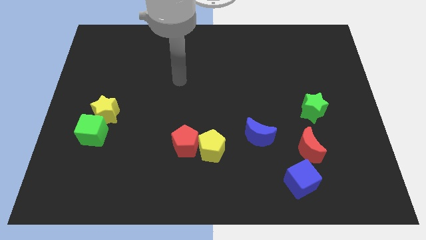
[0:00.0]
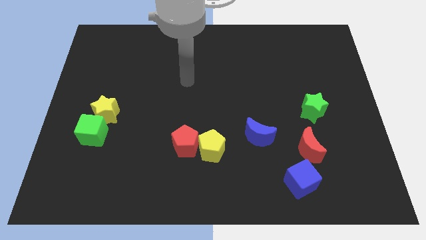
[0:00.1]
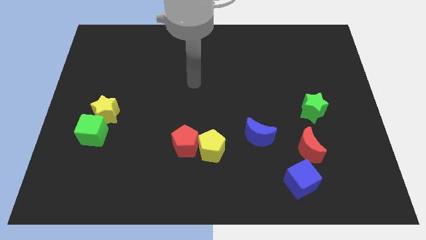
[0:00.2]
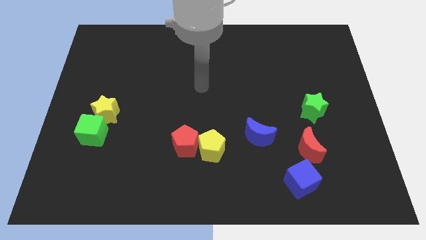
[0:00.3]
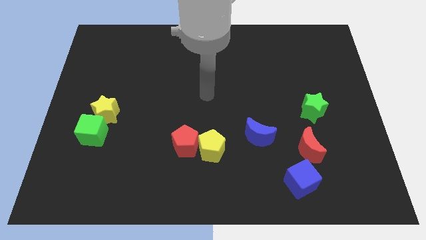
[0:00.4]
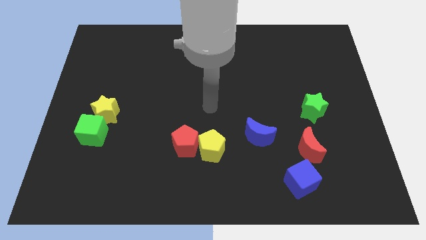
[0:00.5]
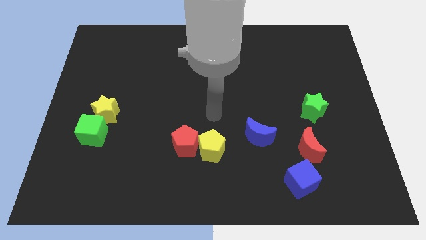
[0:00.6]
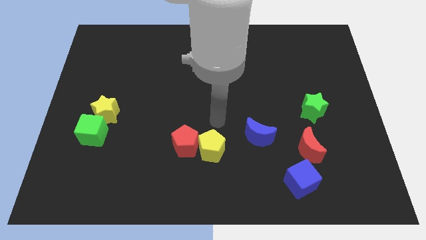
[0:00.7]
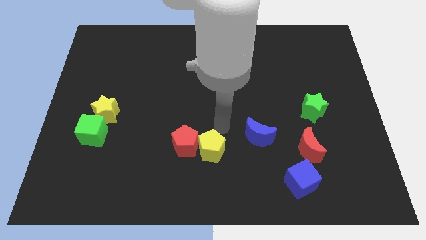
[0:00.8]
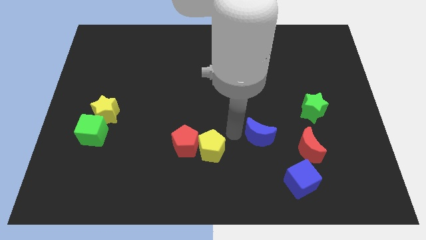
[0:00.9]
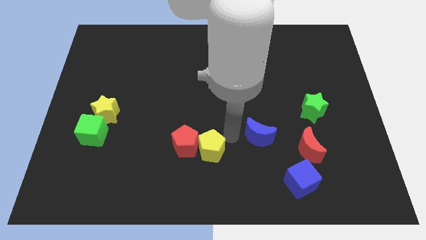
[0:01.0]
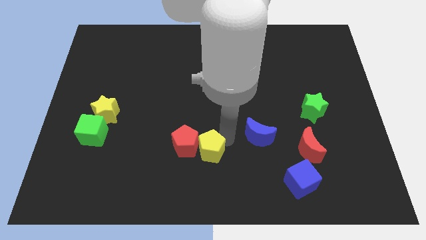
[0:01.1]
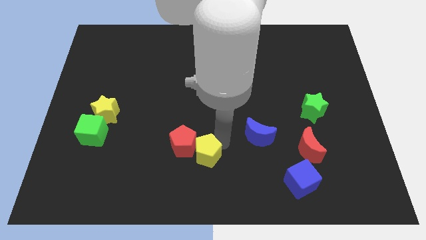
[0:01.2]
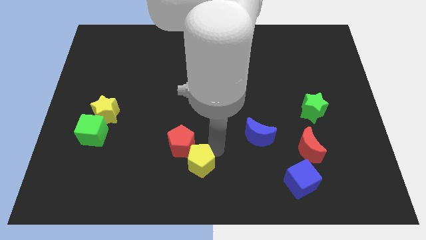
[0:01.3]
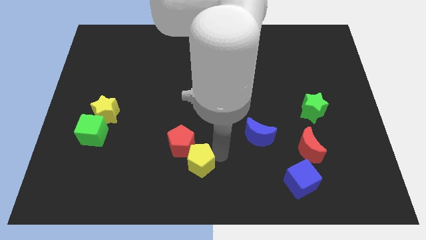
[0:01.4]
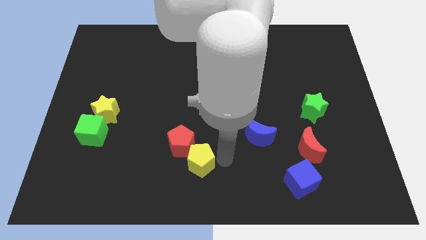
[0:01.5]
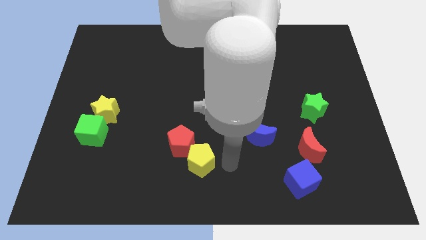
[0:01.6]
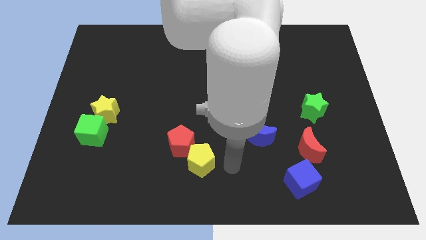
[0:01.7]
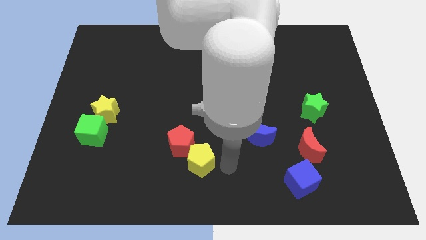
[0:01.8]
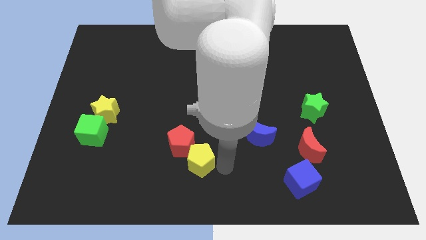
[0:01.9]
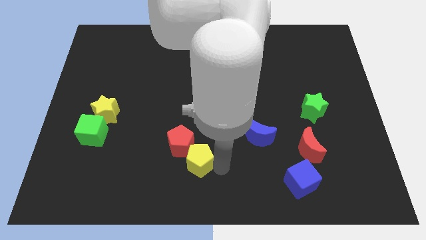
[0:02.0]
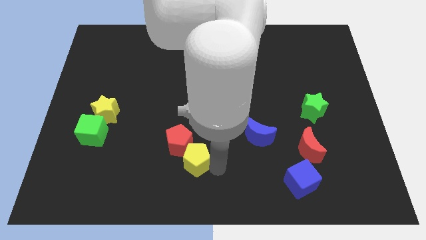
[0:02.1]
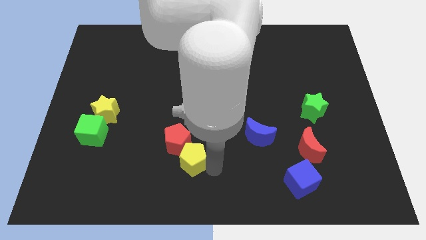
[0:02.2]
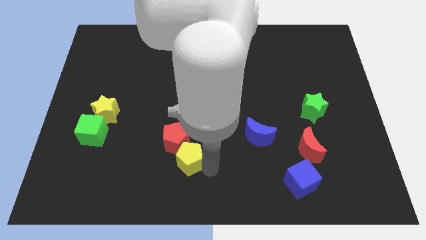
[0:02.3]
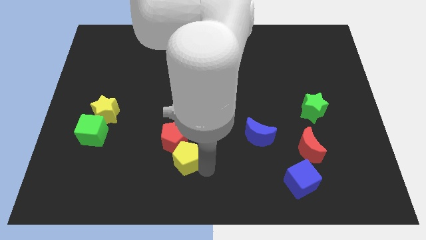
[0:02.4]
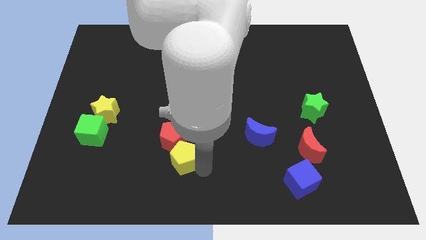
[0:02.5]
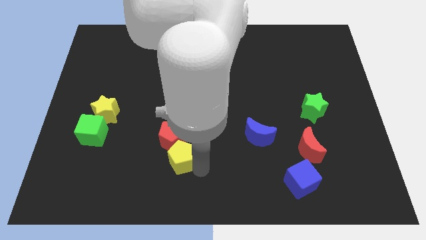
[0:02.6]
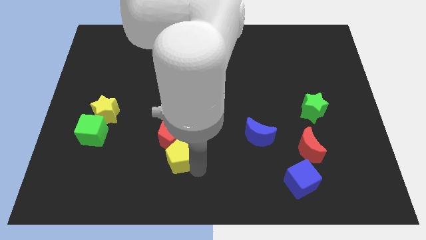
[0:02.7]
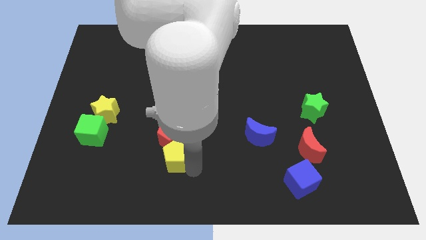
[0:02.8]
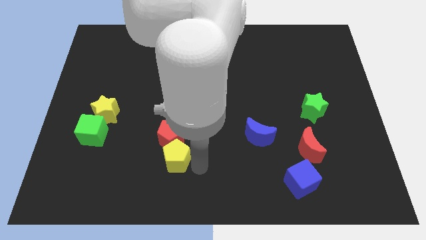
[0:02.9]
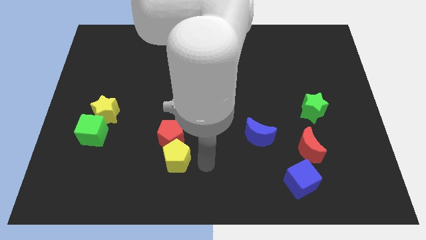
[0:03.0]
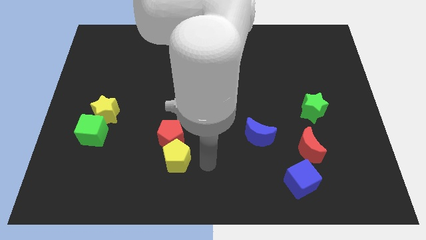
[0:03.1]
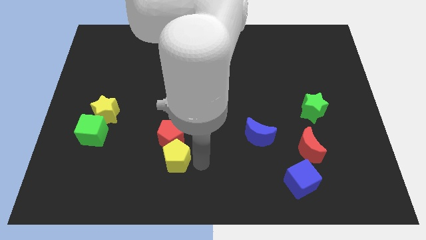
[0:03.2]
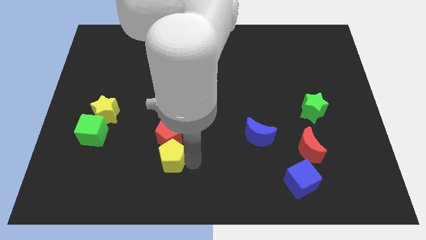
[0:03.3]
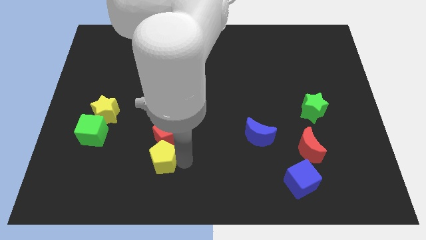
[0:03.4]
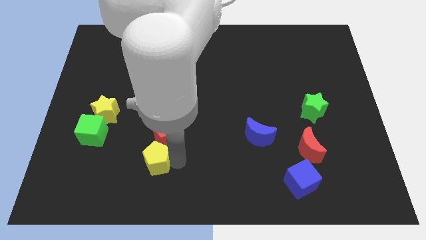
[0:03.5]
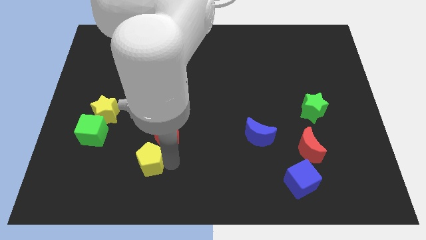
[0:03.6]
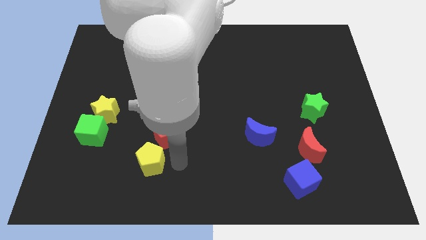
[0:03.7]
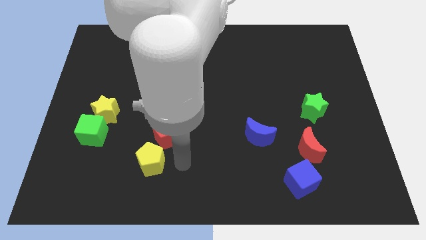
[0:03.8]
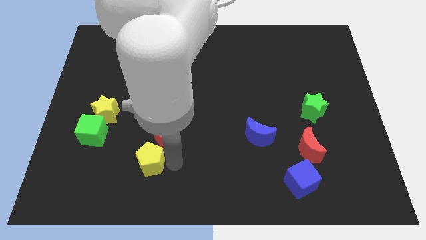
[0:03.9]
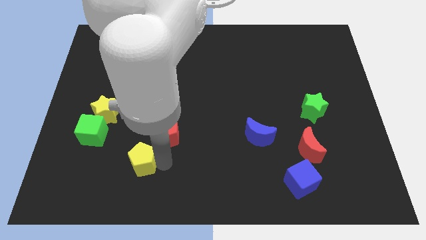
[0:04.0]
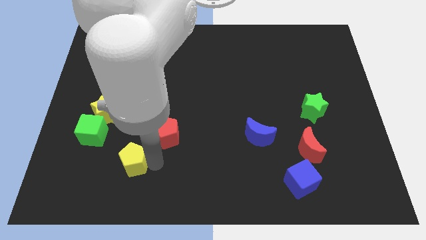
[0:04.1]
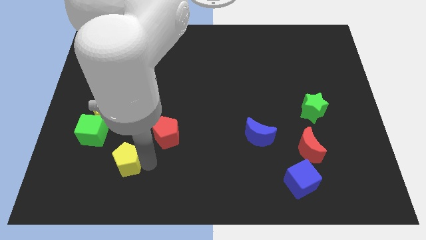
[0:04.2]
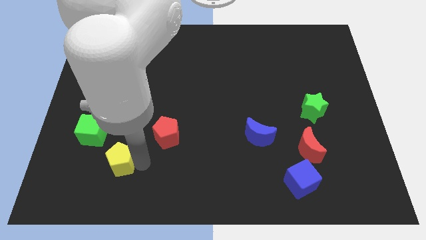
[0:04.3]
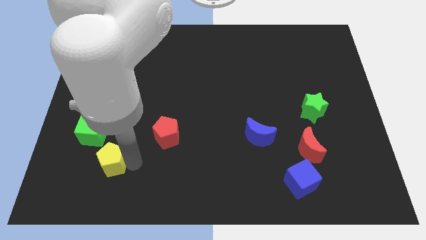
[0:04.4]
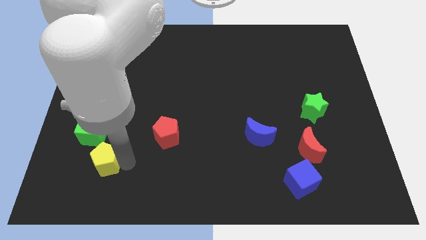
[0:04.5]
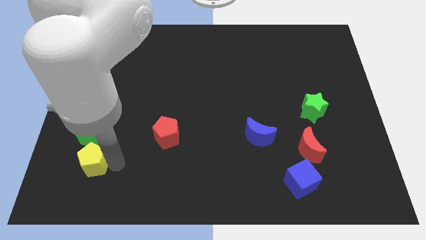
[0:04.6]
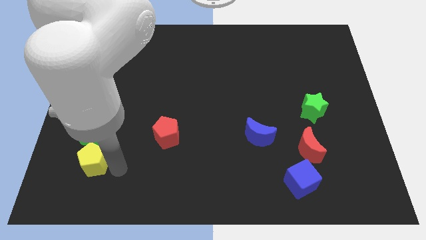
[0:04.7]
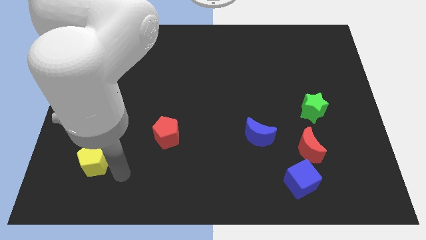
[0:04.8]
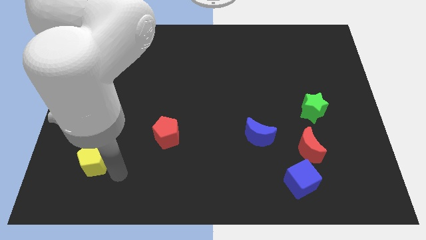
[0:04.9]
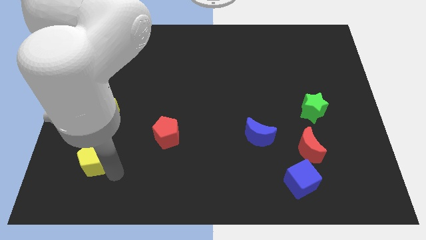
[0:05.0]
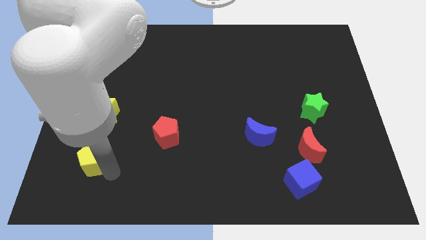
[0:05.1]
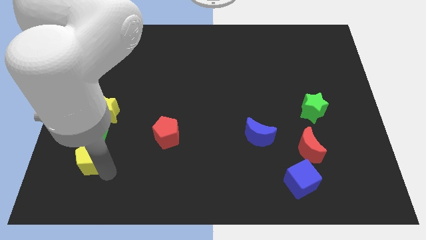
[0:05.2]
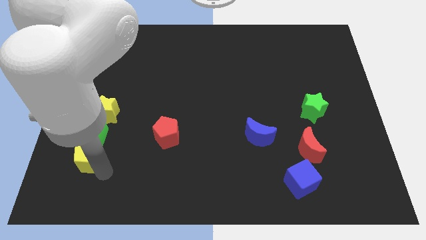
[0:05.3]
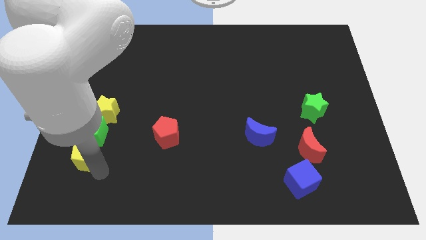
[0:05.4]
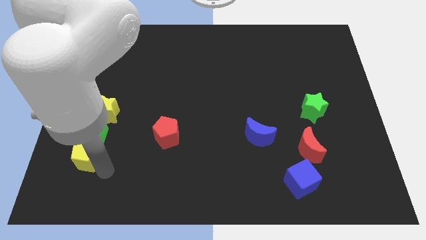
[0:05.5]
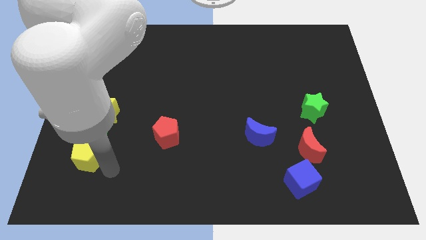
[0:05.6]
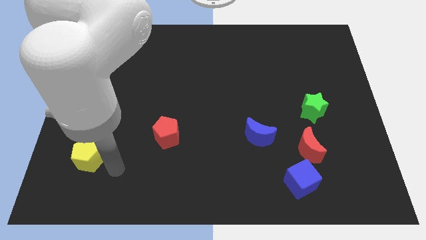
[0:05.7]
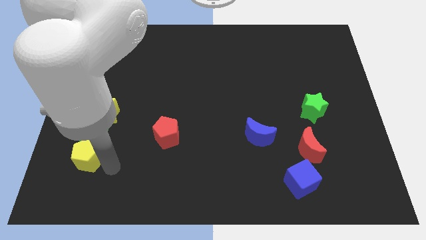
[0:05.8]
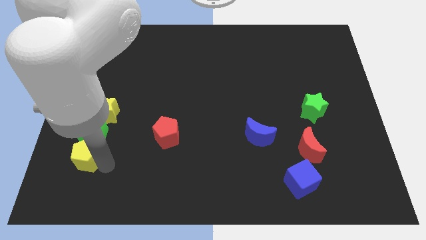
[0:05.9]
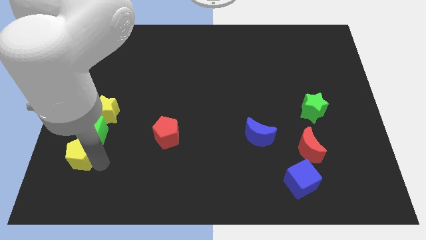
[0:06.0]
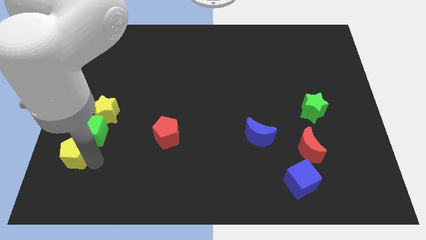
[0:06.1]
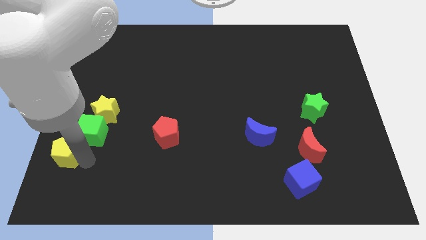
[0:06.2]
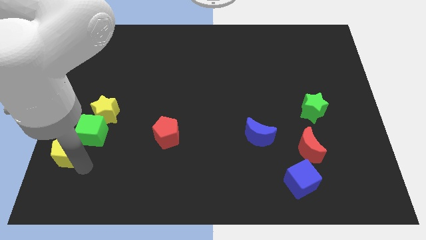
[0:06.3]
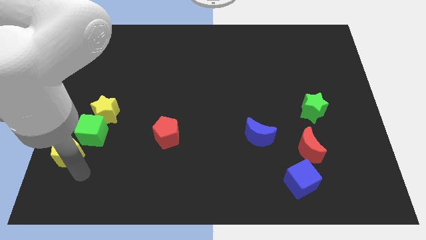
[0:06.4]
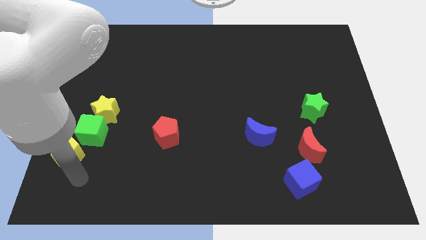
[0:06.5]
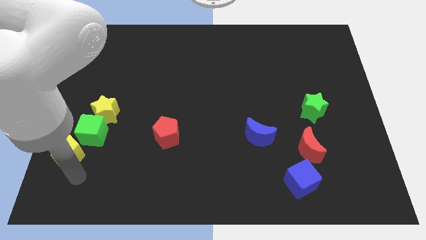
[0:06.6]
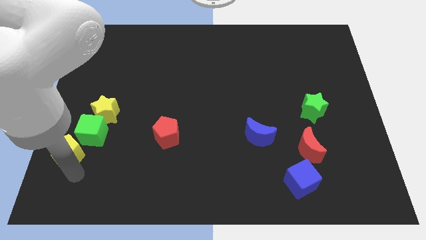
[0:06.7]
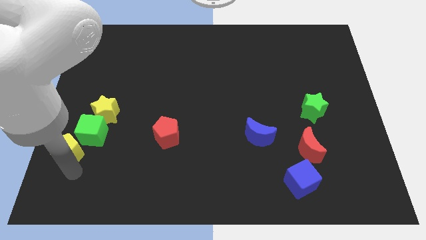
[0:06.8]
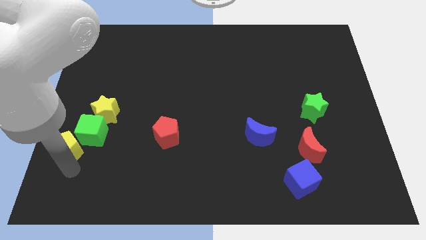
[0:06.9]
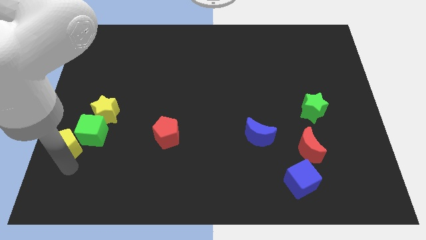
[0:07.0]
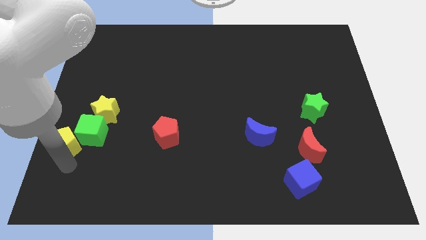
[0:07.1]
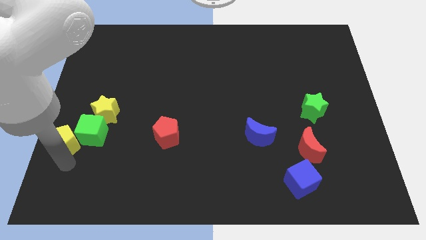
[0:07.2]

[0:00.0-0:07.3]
push the yellow pentagon to the left side

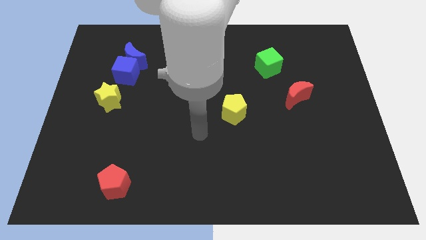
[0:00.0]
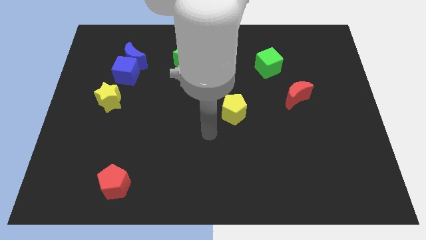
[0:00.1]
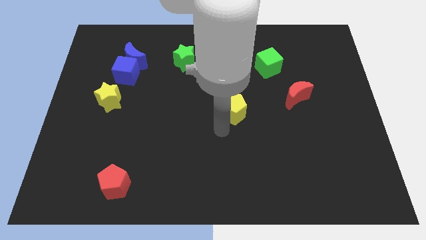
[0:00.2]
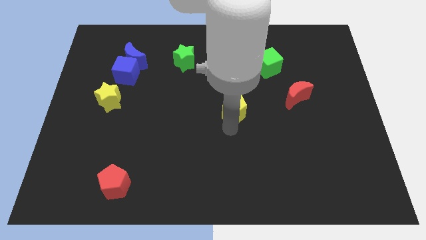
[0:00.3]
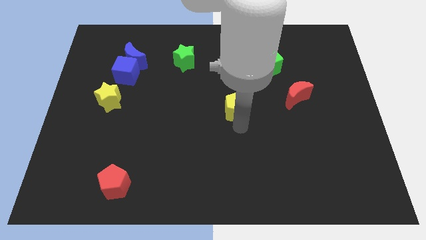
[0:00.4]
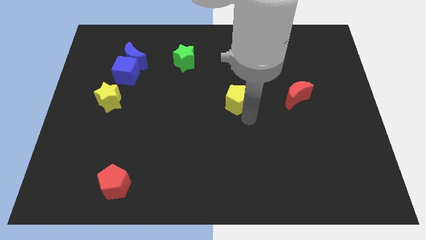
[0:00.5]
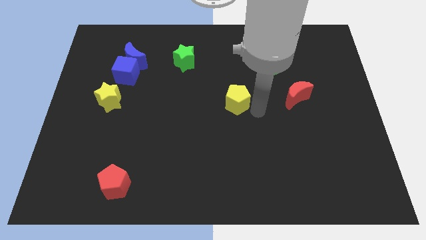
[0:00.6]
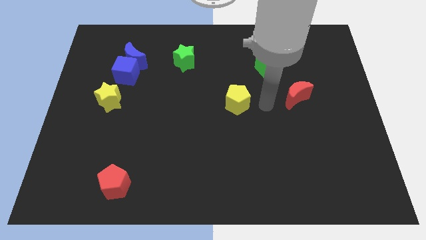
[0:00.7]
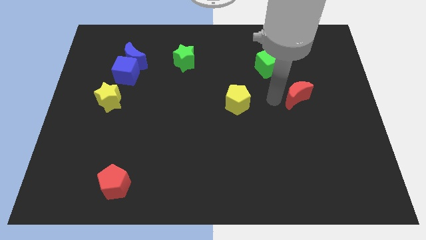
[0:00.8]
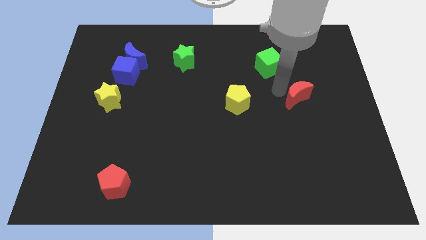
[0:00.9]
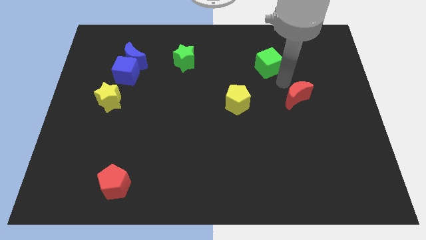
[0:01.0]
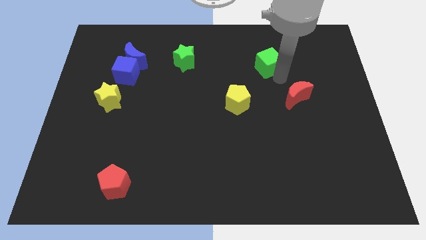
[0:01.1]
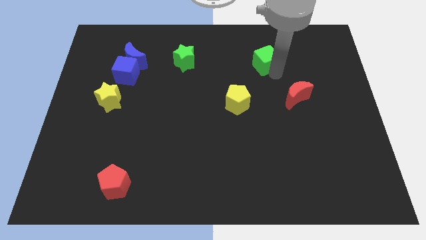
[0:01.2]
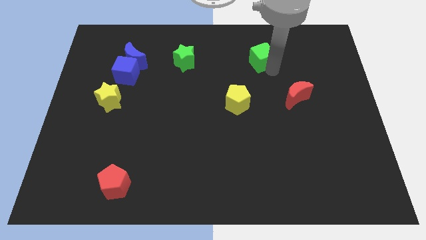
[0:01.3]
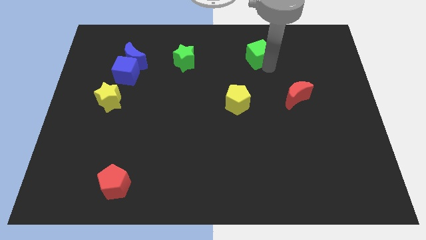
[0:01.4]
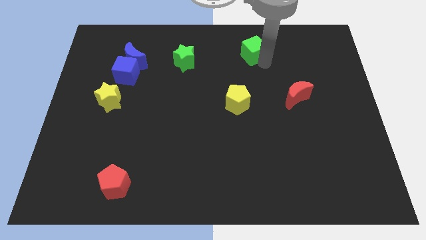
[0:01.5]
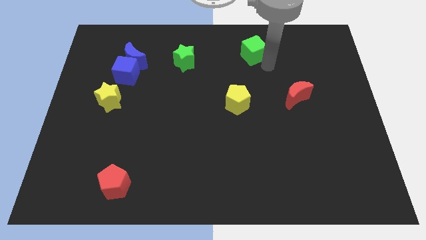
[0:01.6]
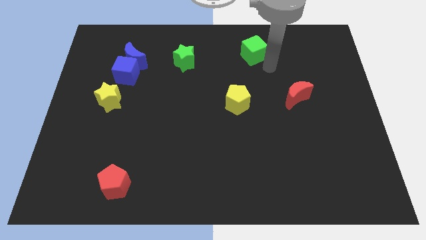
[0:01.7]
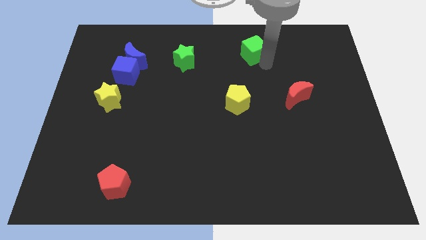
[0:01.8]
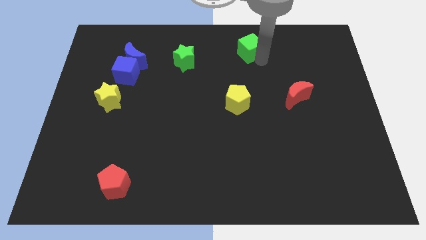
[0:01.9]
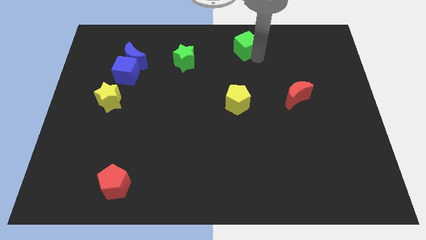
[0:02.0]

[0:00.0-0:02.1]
move the green cube to the top side
